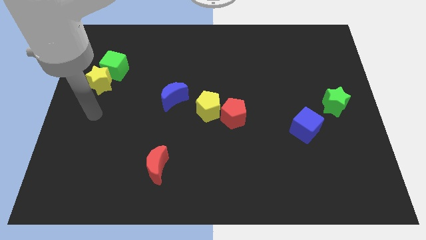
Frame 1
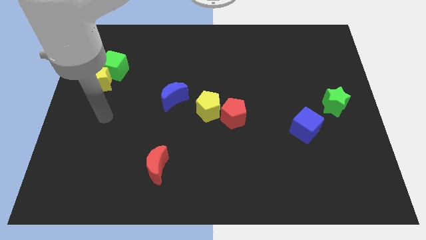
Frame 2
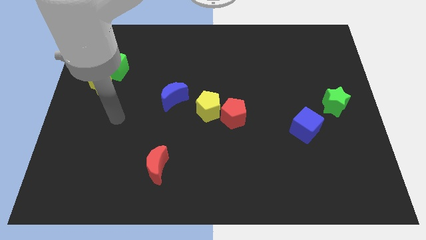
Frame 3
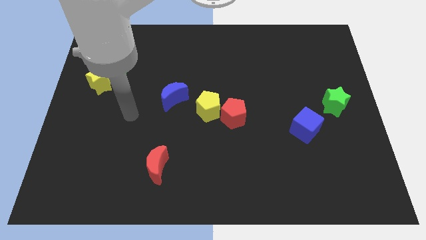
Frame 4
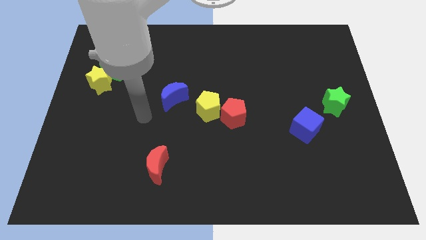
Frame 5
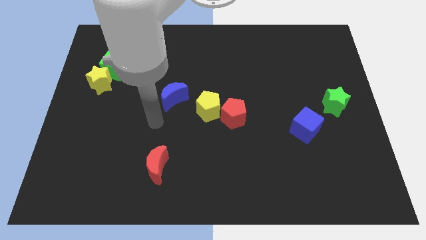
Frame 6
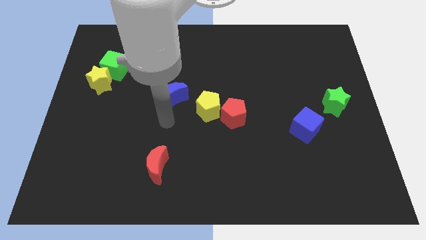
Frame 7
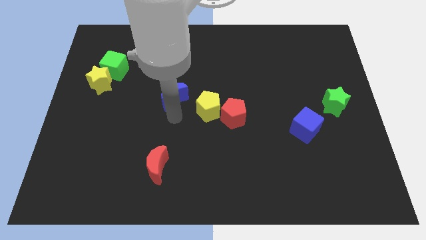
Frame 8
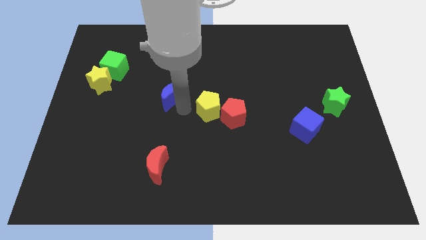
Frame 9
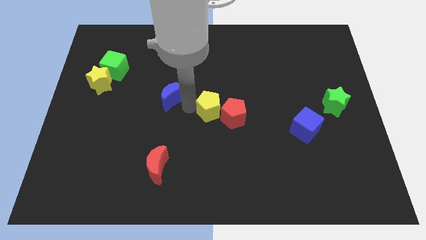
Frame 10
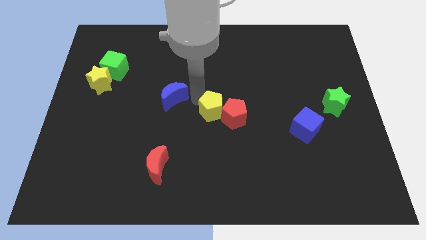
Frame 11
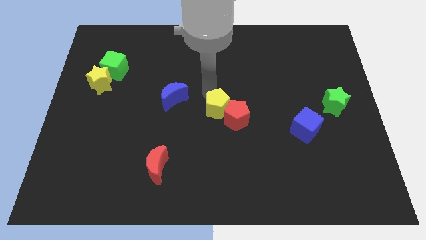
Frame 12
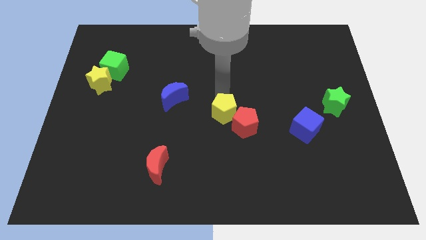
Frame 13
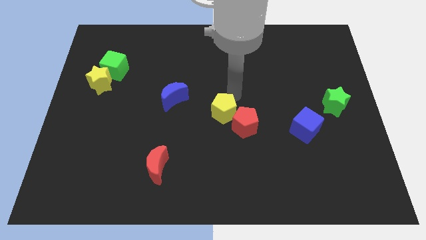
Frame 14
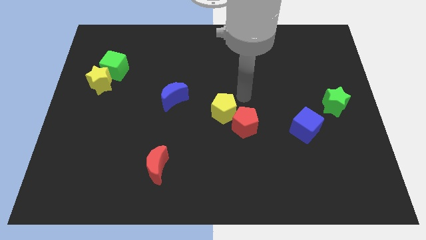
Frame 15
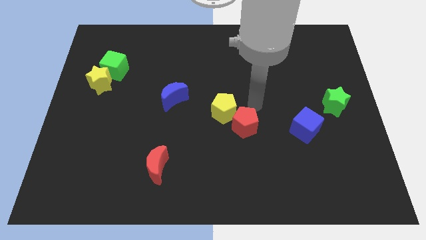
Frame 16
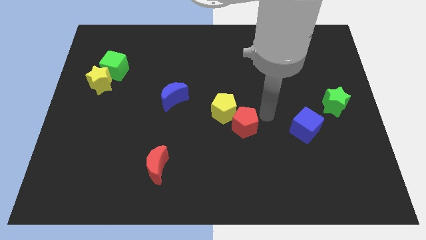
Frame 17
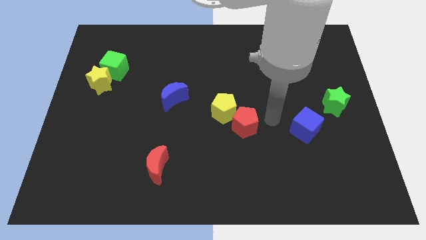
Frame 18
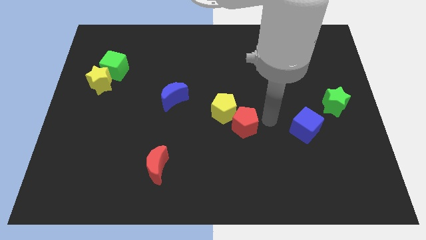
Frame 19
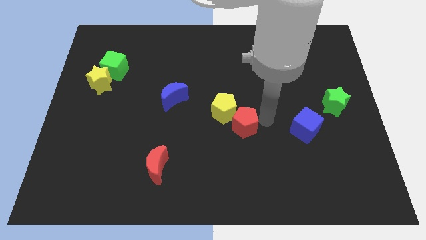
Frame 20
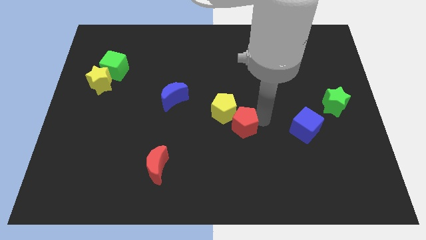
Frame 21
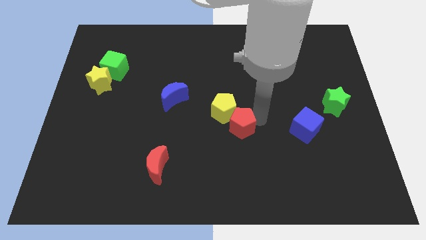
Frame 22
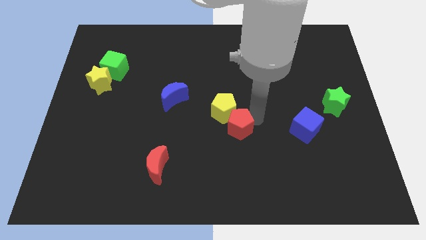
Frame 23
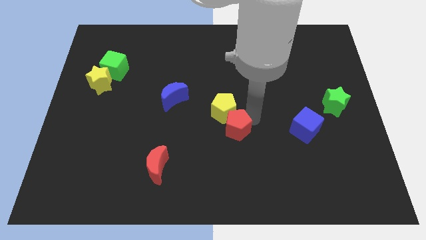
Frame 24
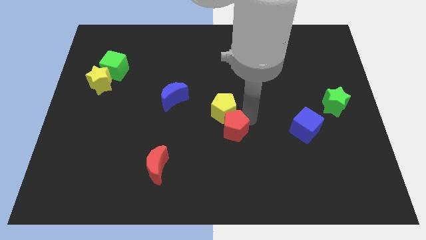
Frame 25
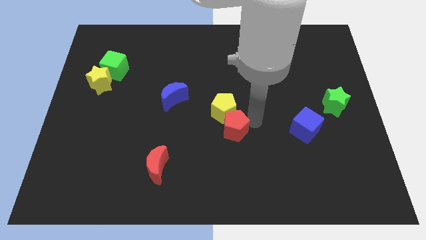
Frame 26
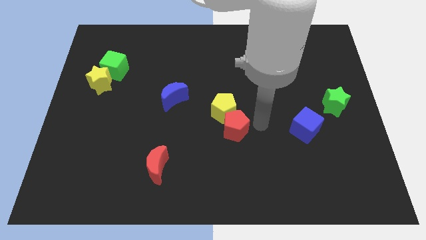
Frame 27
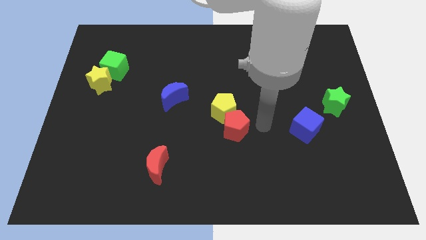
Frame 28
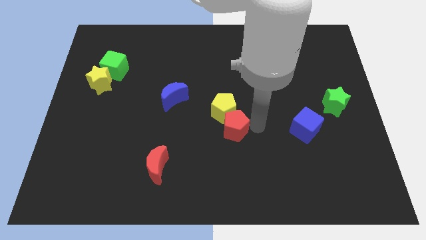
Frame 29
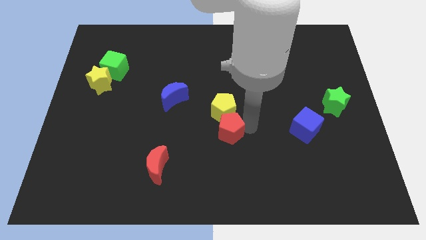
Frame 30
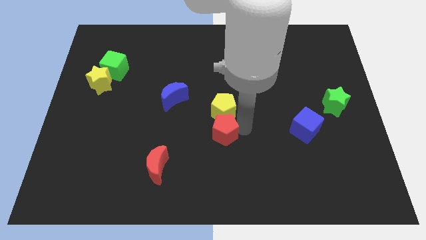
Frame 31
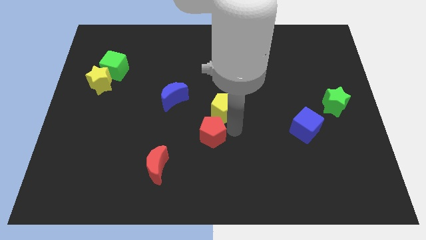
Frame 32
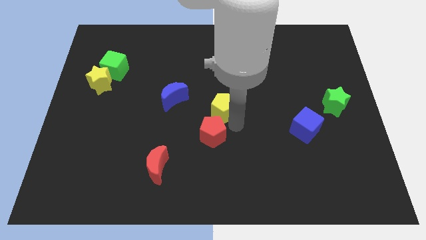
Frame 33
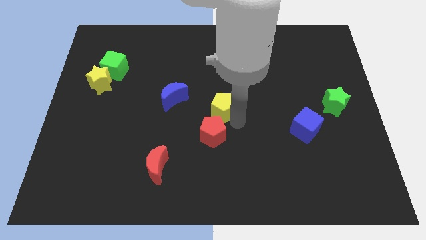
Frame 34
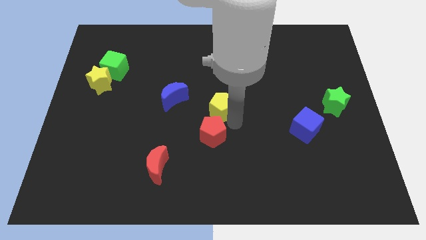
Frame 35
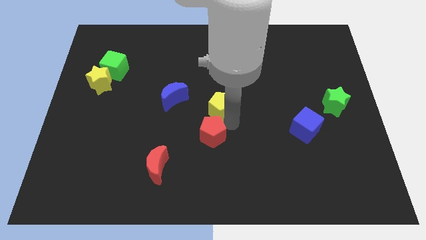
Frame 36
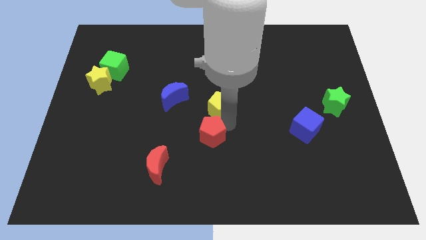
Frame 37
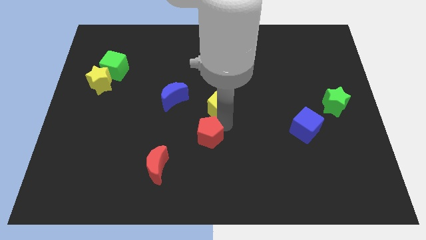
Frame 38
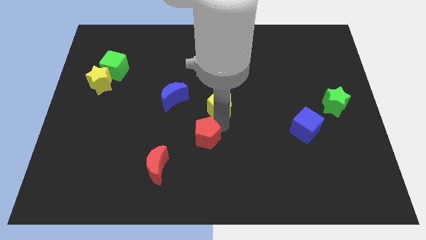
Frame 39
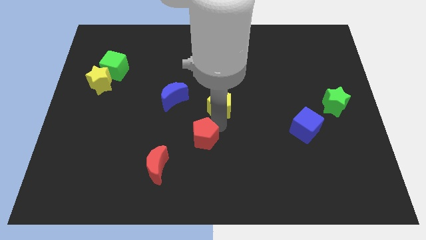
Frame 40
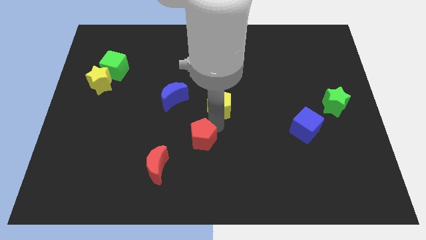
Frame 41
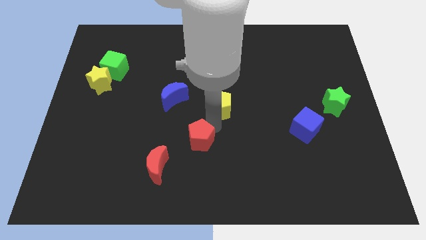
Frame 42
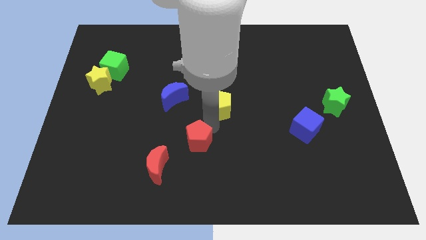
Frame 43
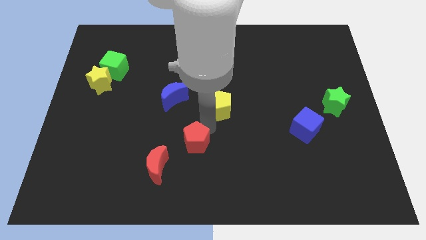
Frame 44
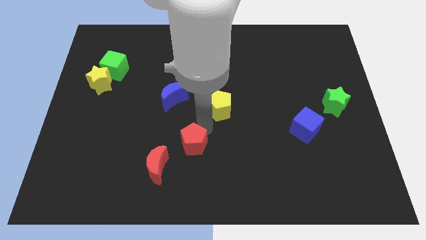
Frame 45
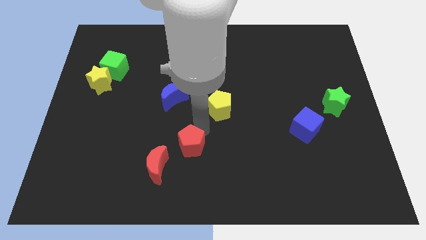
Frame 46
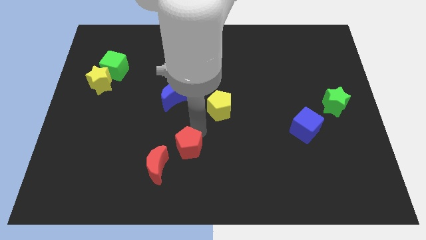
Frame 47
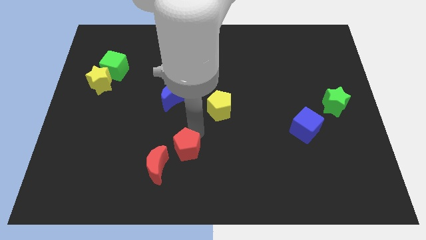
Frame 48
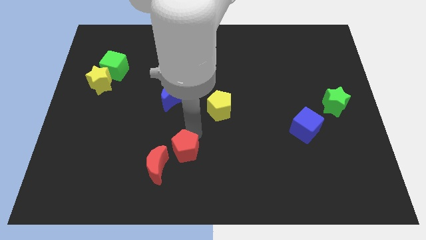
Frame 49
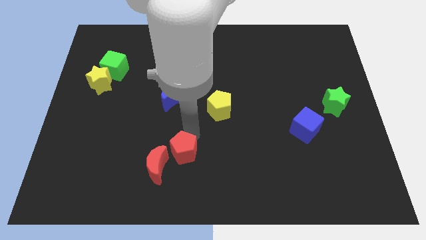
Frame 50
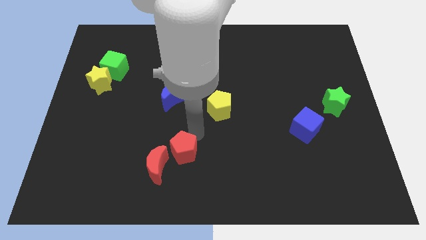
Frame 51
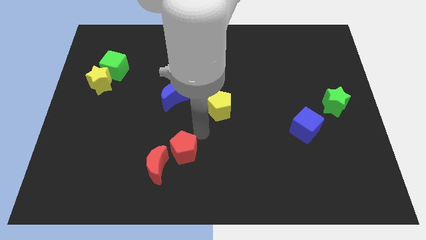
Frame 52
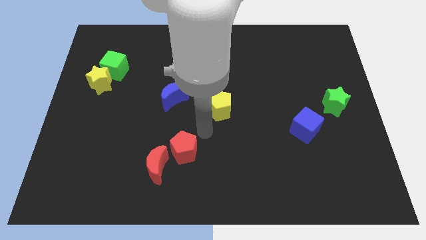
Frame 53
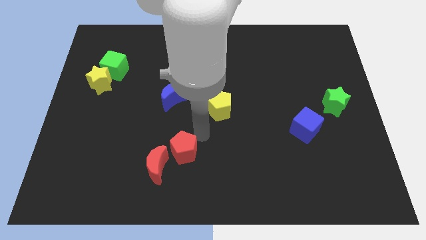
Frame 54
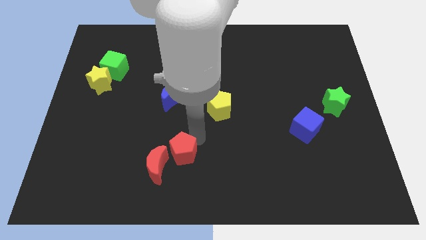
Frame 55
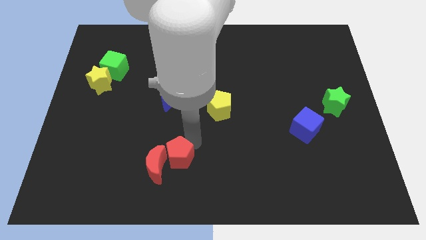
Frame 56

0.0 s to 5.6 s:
push the red pentagon close to the red moon

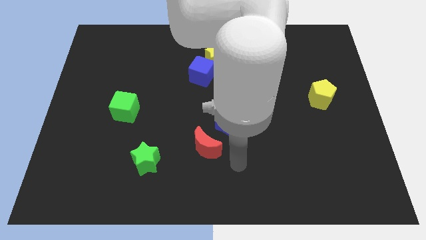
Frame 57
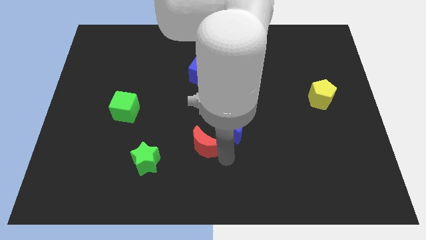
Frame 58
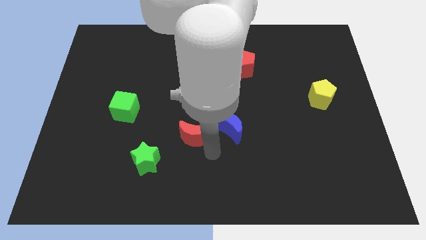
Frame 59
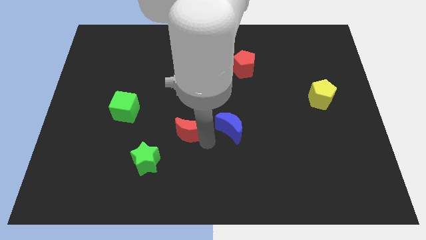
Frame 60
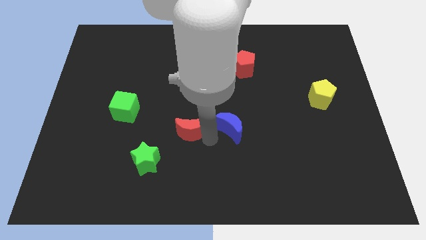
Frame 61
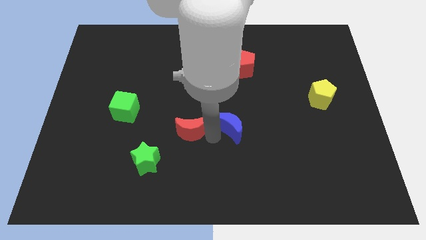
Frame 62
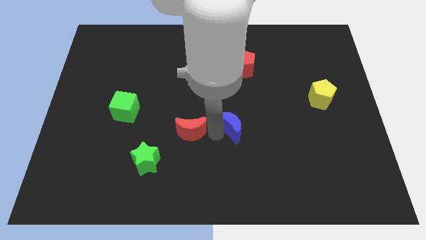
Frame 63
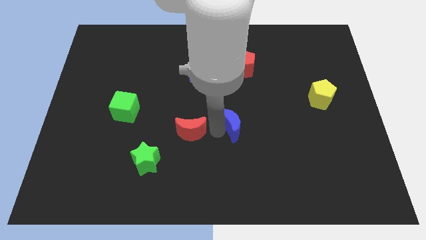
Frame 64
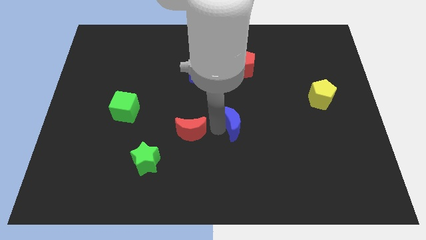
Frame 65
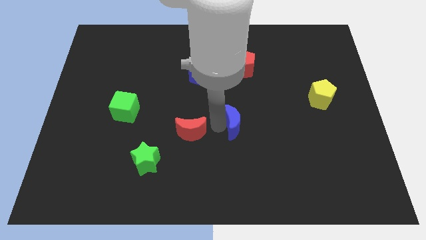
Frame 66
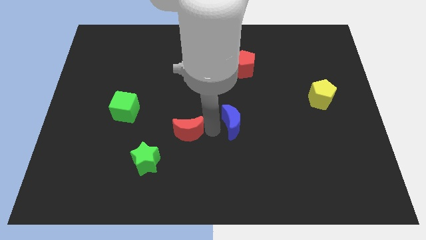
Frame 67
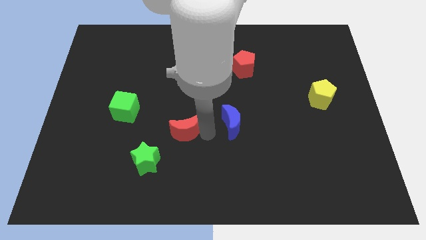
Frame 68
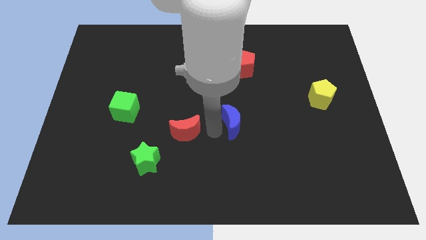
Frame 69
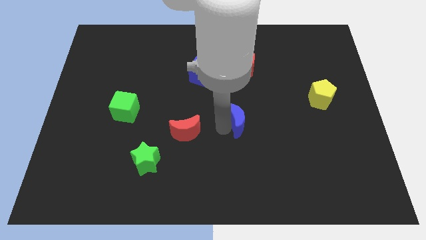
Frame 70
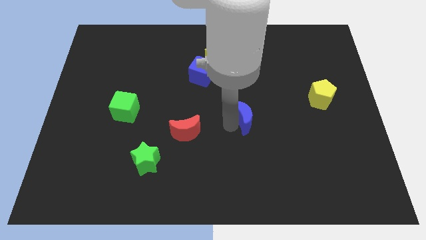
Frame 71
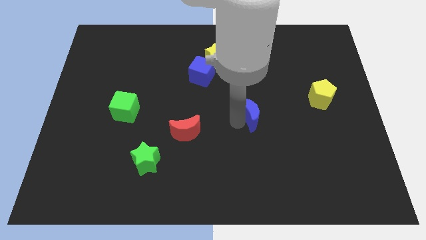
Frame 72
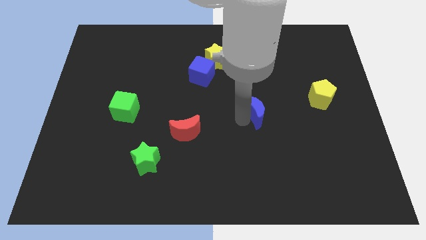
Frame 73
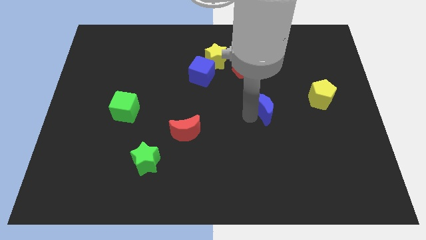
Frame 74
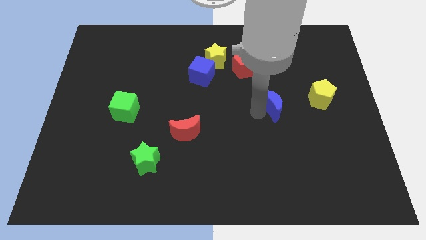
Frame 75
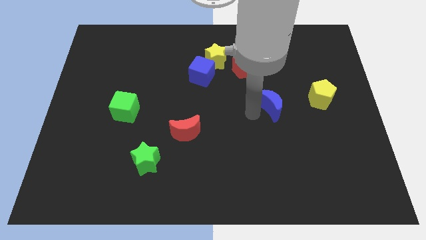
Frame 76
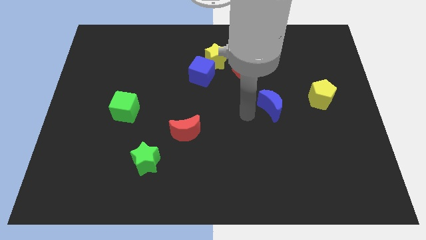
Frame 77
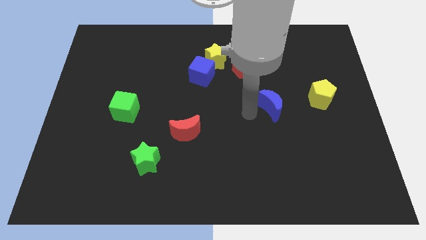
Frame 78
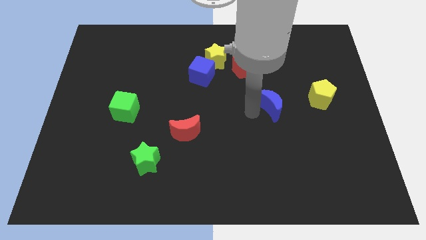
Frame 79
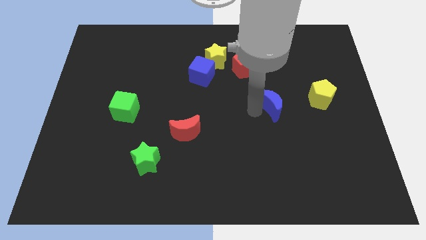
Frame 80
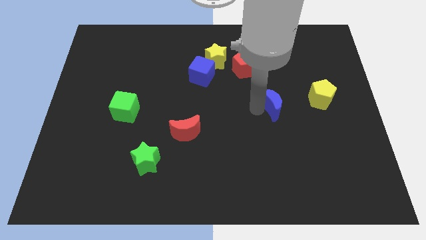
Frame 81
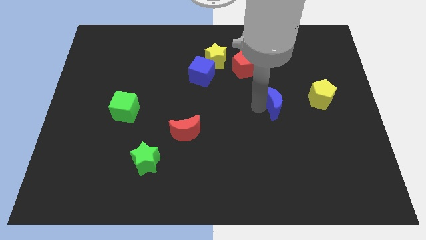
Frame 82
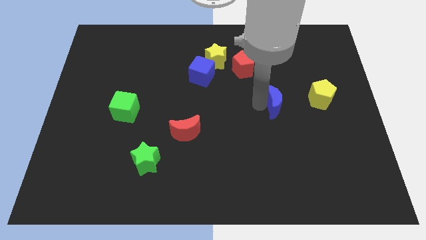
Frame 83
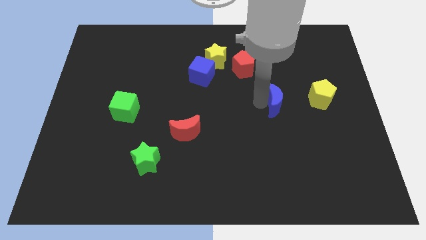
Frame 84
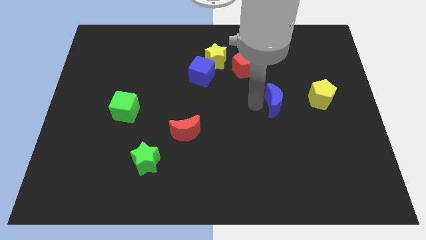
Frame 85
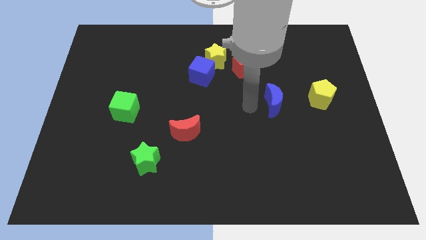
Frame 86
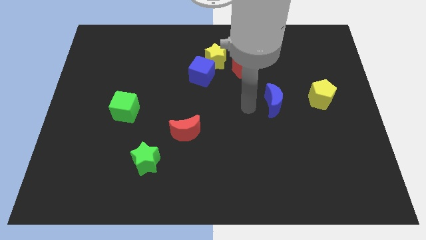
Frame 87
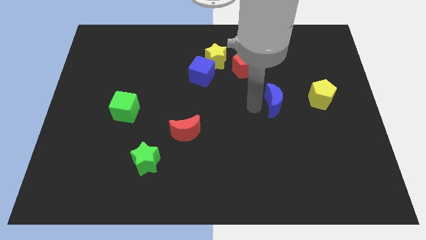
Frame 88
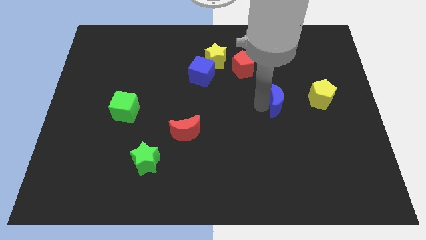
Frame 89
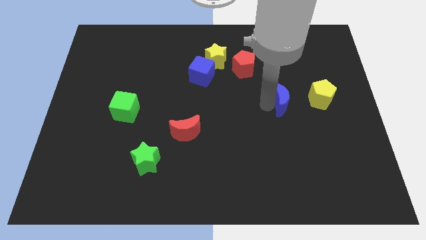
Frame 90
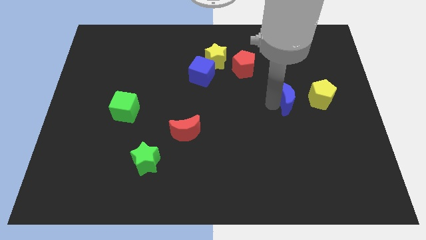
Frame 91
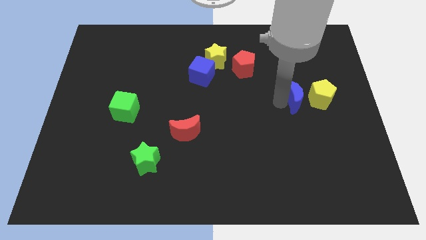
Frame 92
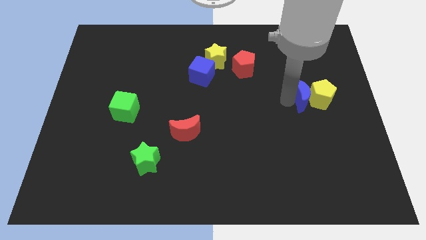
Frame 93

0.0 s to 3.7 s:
put the blue moon towards the yellow pentagon
